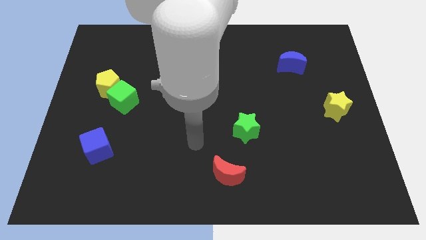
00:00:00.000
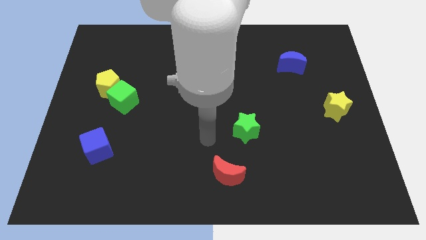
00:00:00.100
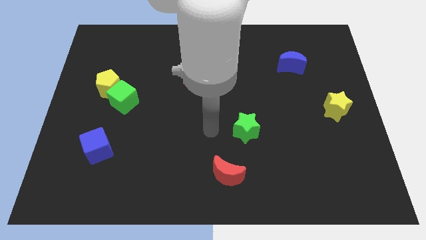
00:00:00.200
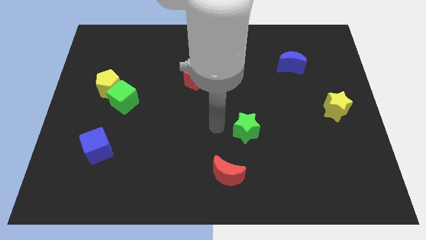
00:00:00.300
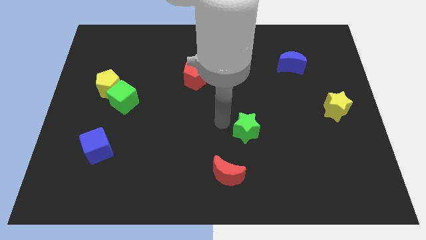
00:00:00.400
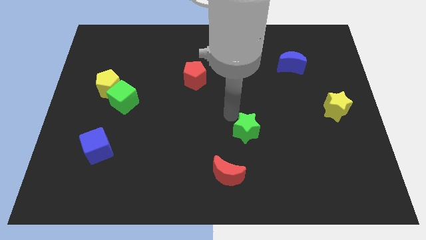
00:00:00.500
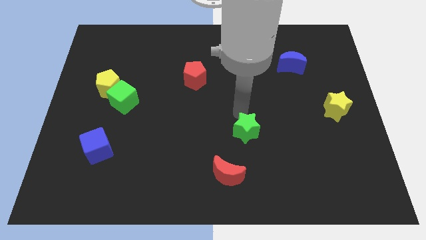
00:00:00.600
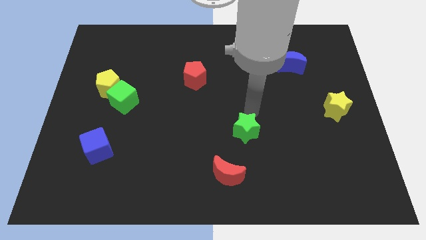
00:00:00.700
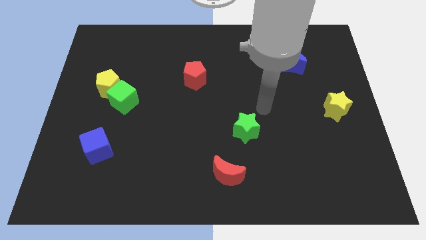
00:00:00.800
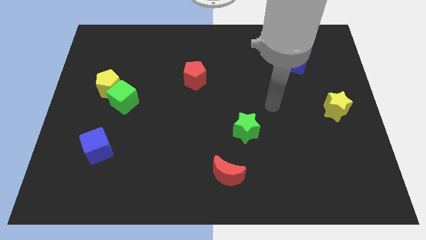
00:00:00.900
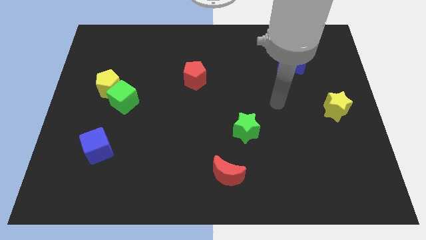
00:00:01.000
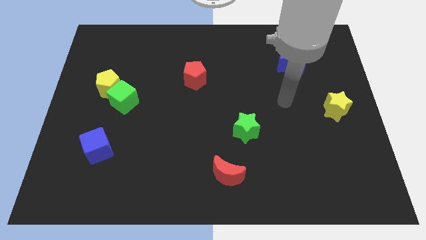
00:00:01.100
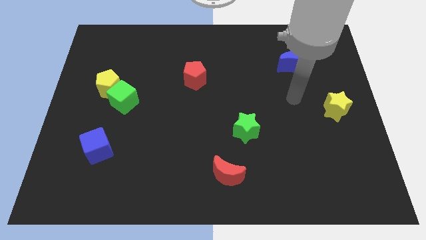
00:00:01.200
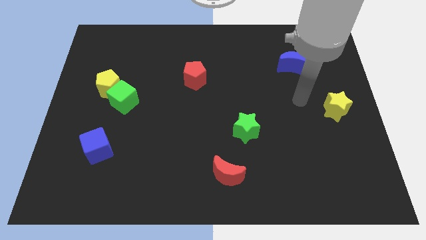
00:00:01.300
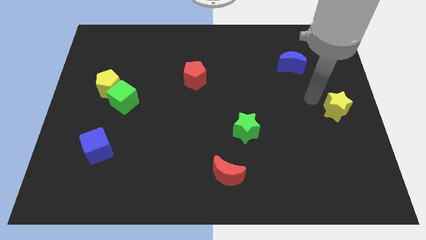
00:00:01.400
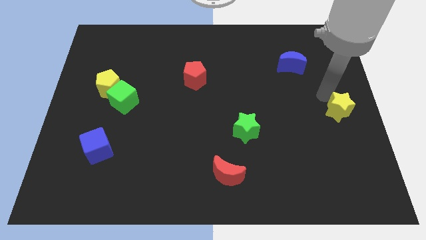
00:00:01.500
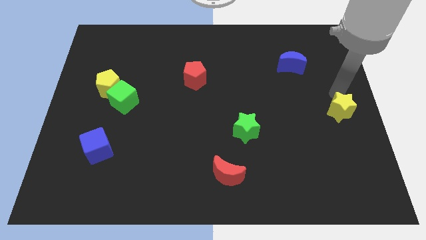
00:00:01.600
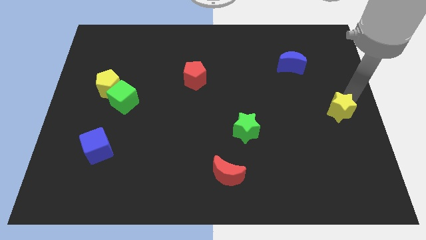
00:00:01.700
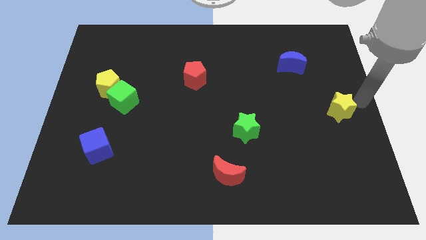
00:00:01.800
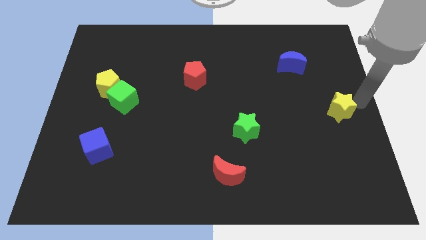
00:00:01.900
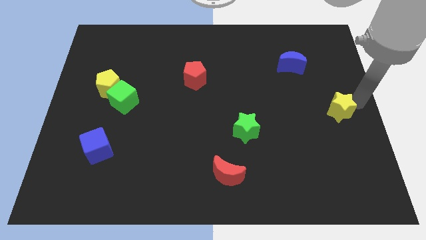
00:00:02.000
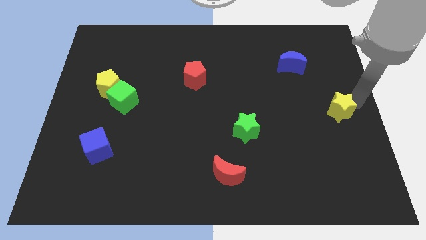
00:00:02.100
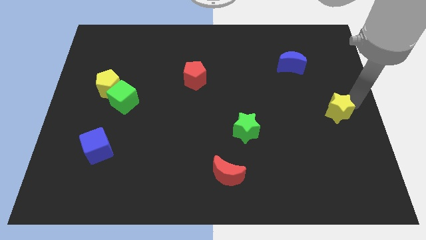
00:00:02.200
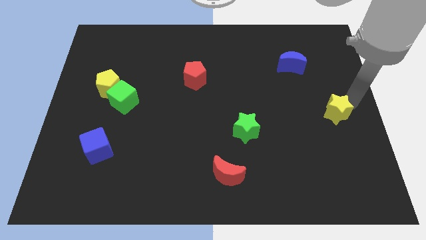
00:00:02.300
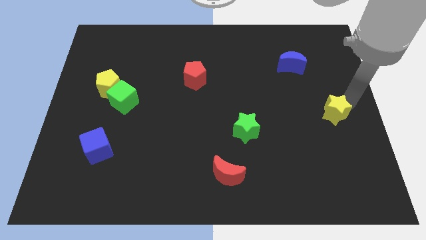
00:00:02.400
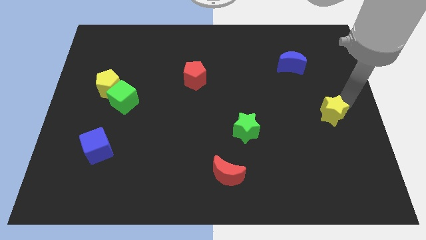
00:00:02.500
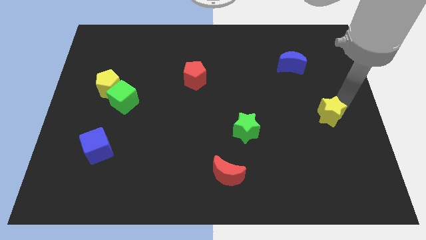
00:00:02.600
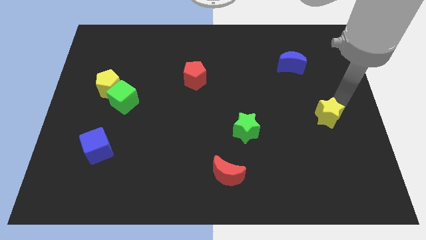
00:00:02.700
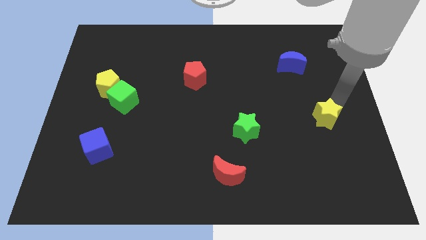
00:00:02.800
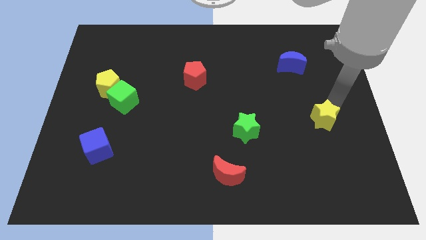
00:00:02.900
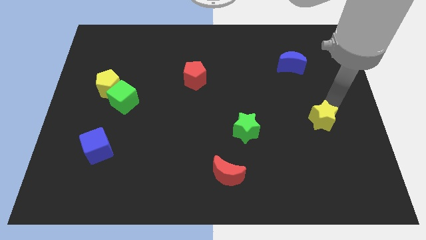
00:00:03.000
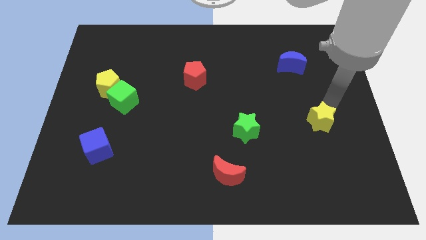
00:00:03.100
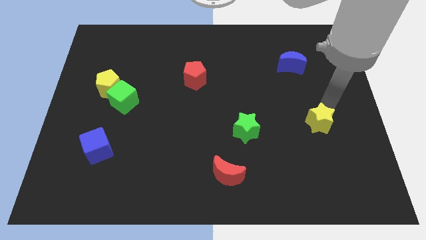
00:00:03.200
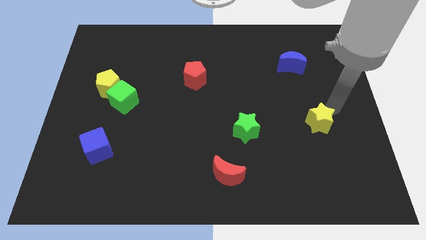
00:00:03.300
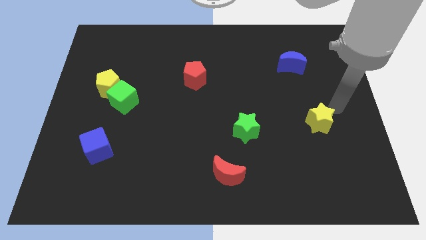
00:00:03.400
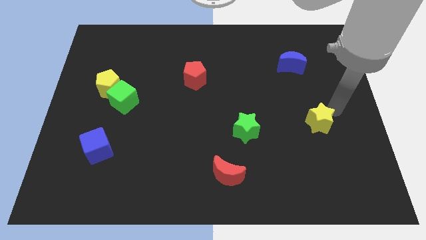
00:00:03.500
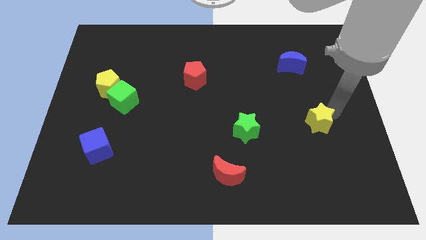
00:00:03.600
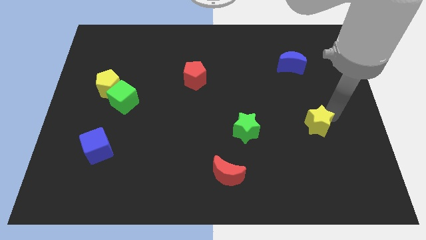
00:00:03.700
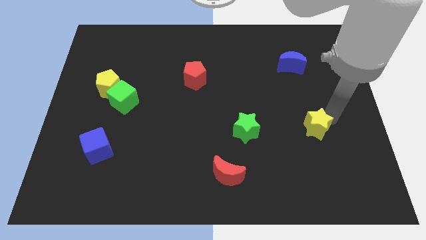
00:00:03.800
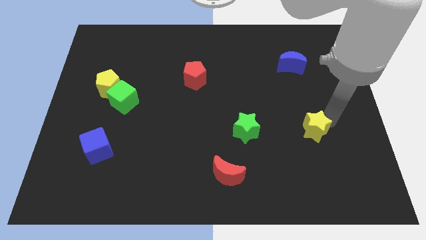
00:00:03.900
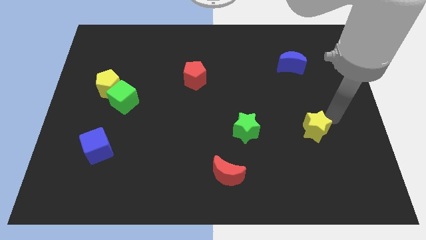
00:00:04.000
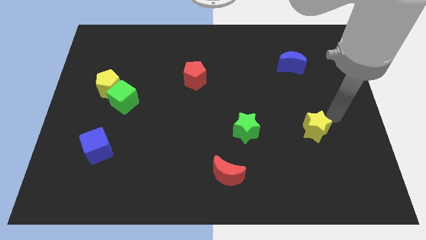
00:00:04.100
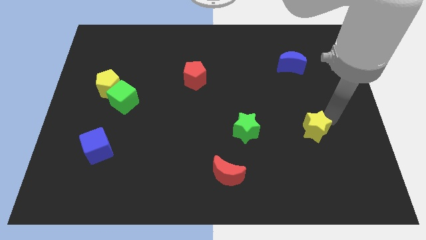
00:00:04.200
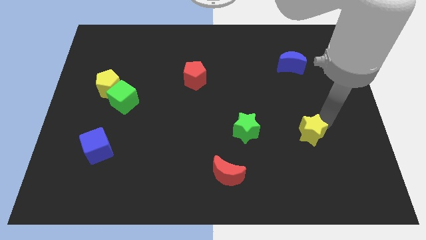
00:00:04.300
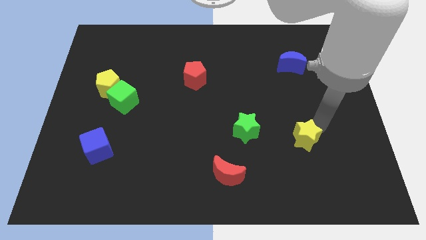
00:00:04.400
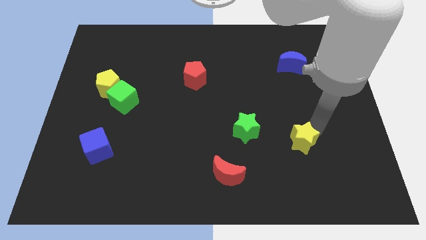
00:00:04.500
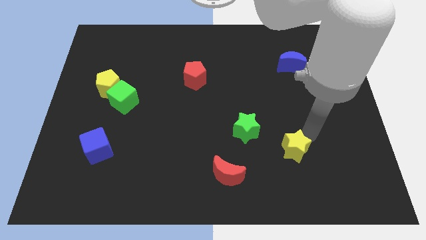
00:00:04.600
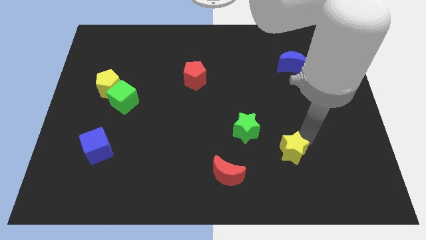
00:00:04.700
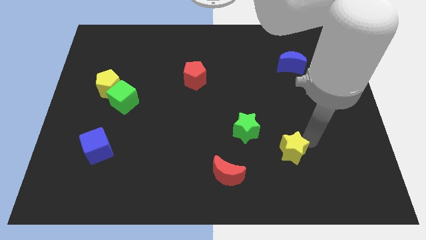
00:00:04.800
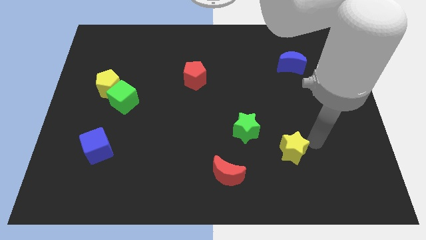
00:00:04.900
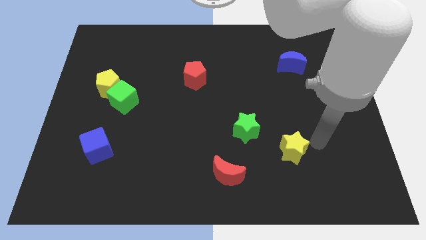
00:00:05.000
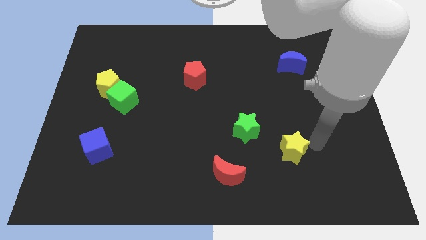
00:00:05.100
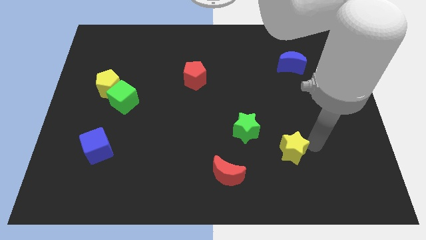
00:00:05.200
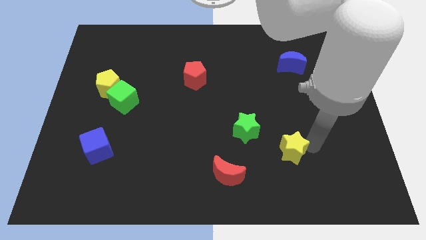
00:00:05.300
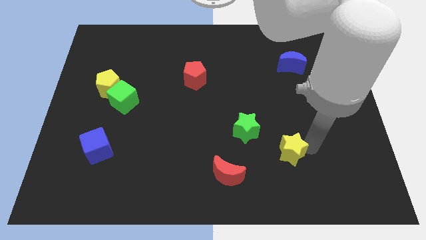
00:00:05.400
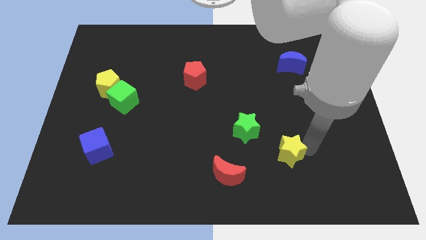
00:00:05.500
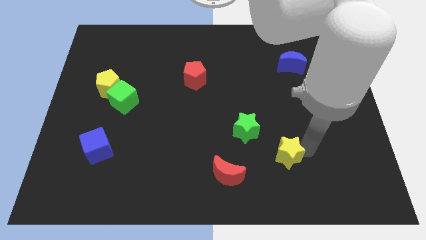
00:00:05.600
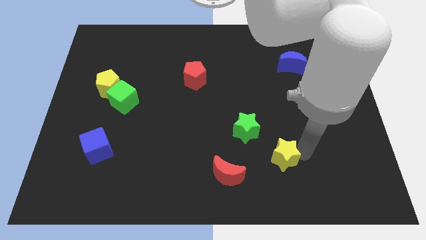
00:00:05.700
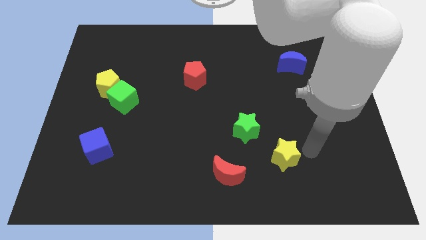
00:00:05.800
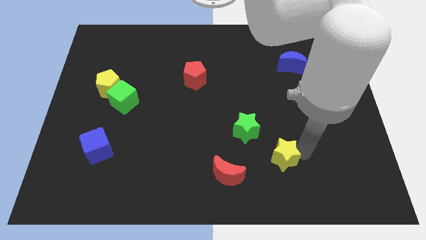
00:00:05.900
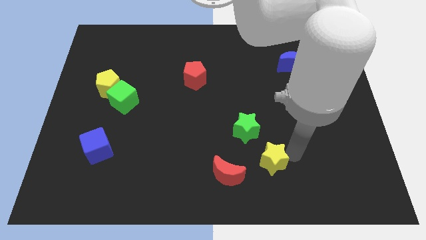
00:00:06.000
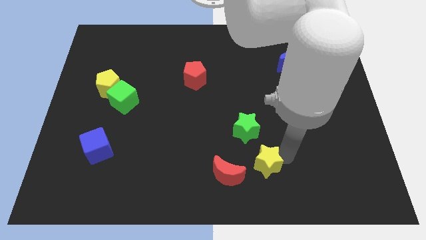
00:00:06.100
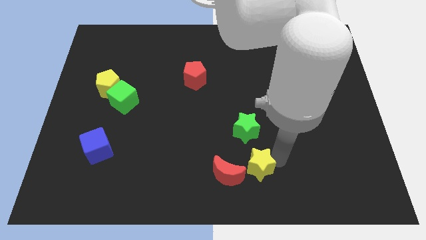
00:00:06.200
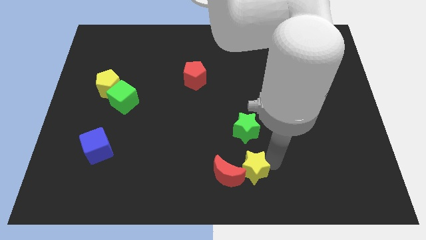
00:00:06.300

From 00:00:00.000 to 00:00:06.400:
push the yellow star next to the red moon

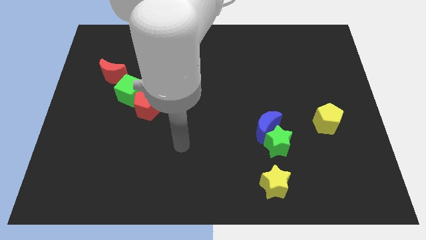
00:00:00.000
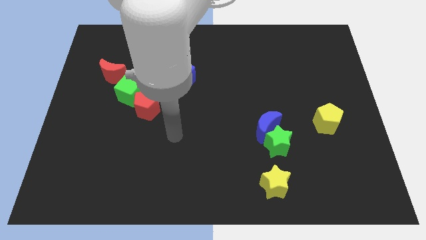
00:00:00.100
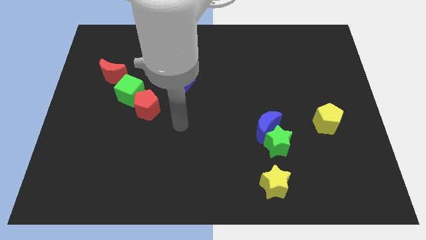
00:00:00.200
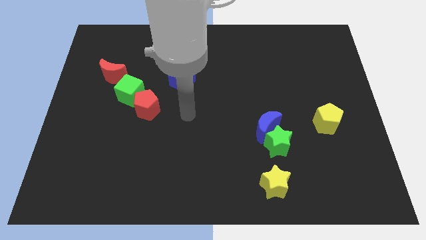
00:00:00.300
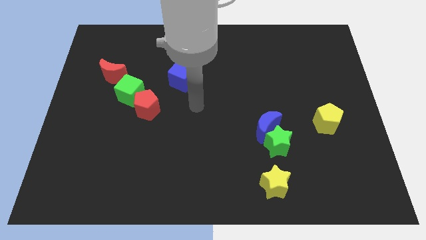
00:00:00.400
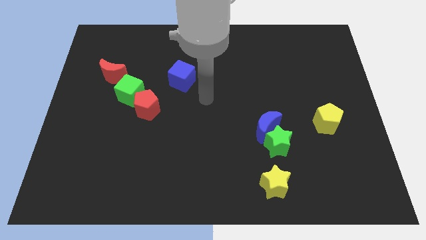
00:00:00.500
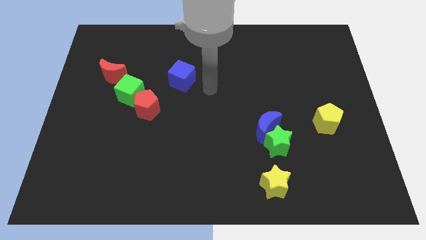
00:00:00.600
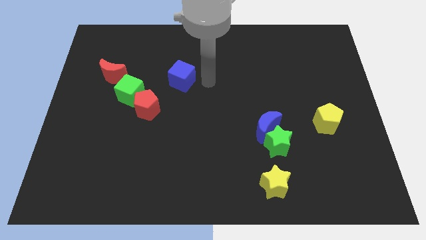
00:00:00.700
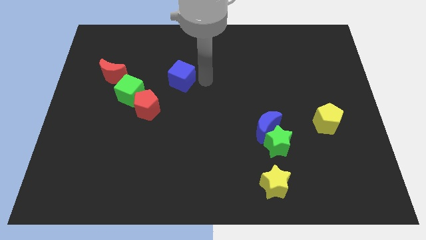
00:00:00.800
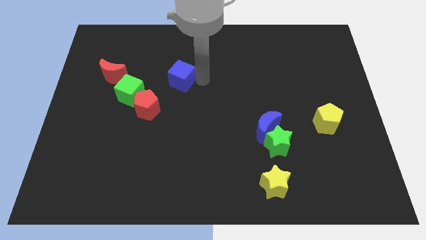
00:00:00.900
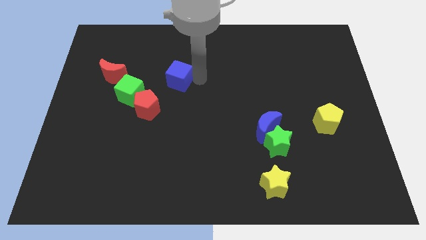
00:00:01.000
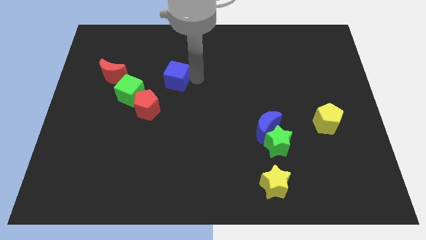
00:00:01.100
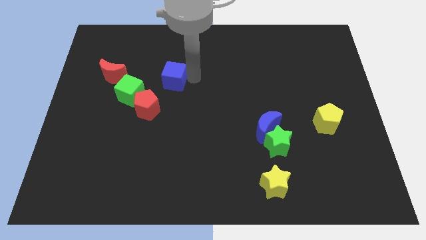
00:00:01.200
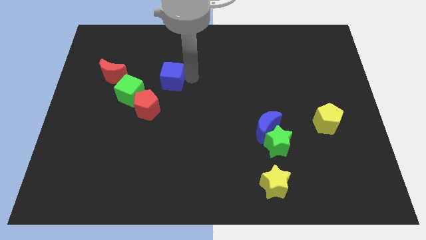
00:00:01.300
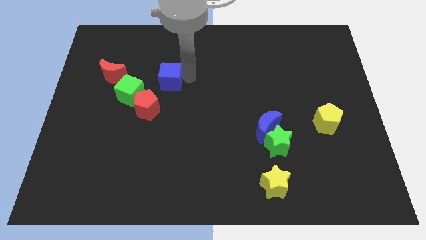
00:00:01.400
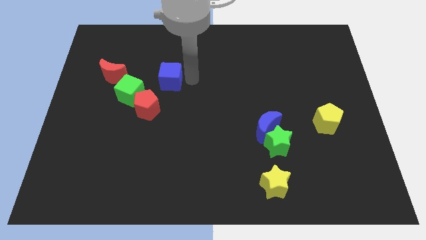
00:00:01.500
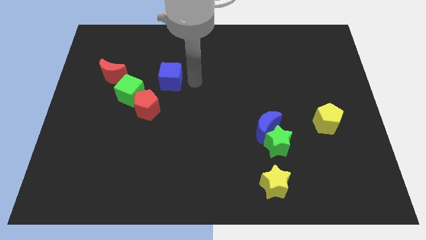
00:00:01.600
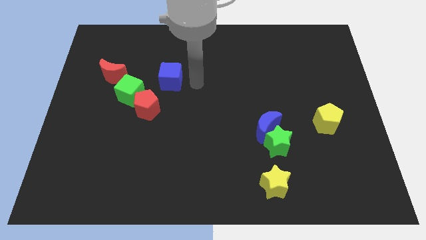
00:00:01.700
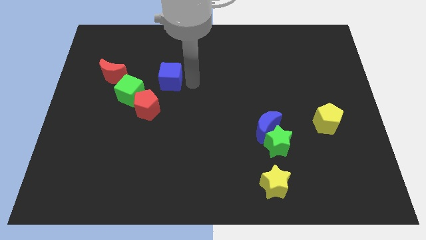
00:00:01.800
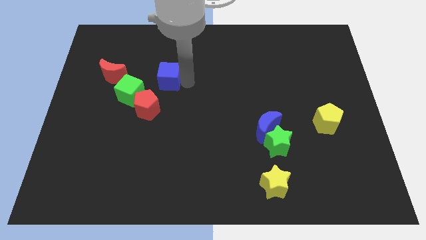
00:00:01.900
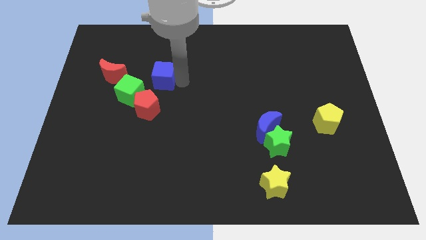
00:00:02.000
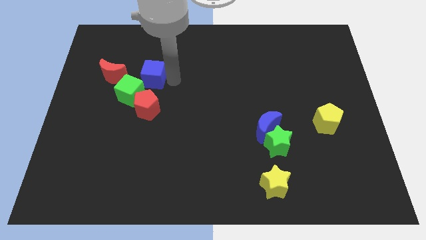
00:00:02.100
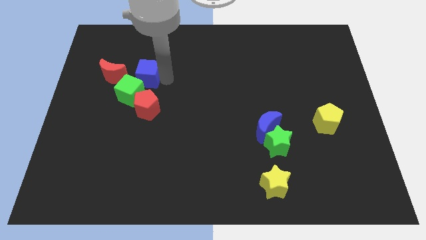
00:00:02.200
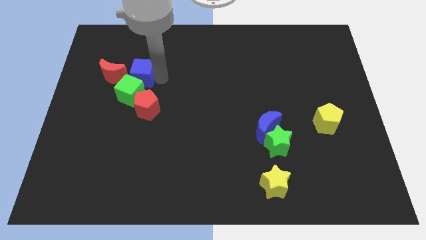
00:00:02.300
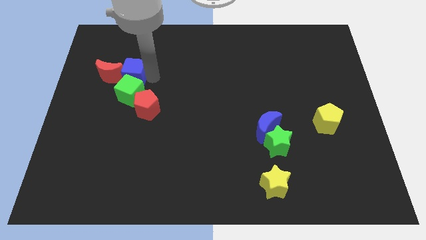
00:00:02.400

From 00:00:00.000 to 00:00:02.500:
slide the blue cube to the red moon
